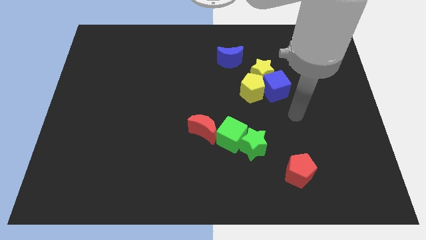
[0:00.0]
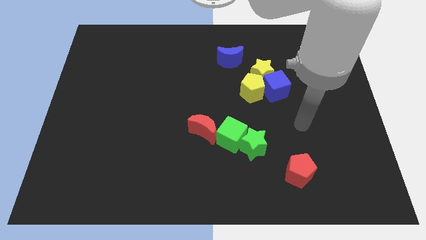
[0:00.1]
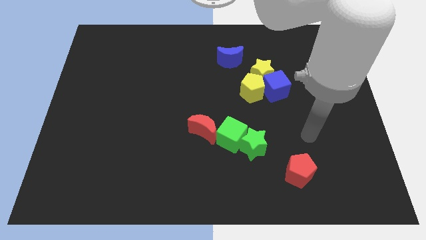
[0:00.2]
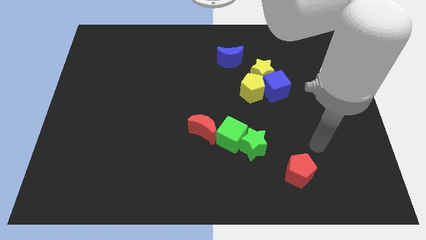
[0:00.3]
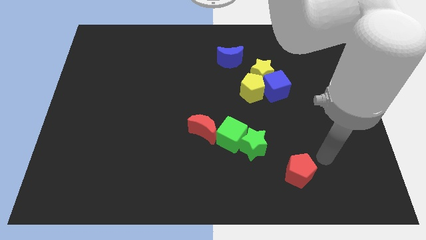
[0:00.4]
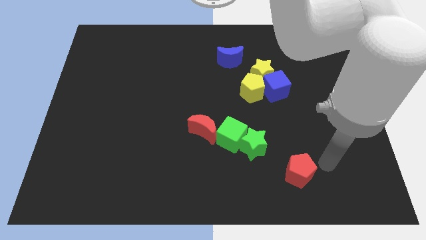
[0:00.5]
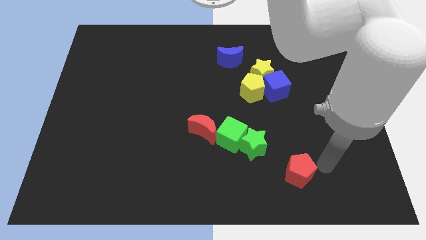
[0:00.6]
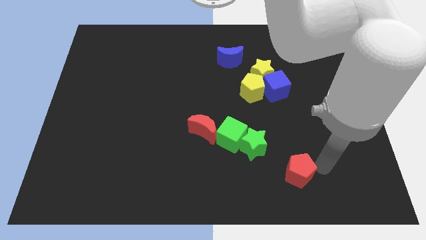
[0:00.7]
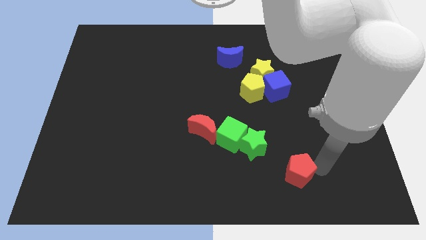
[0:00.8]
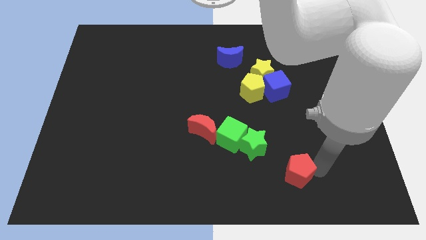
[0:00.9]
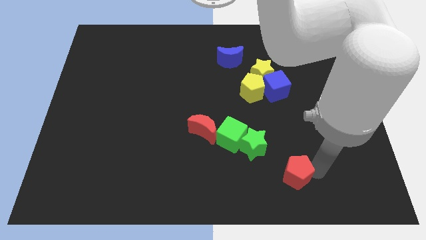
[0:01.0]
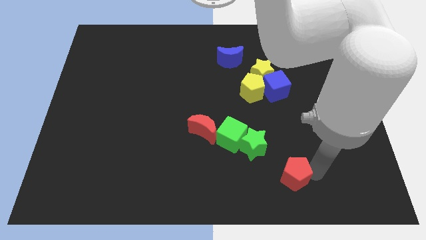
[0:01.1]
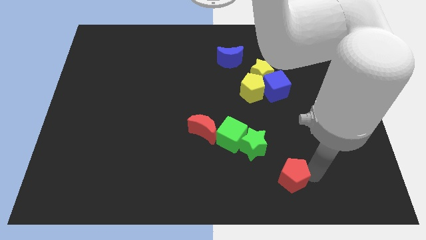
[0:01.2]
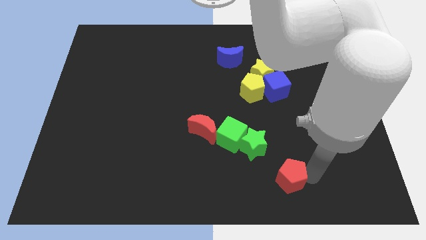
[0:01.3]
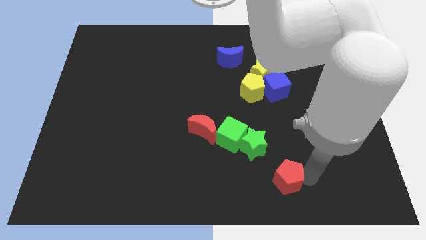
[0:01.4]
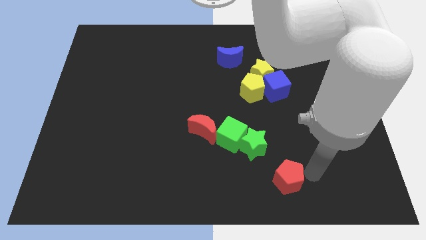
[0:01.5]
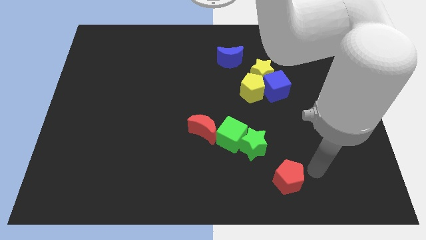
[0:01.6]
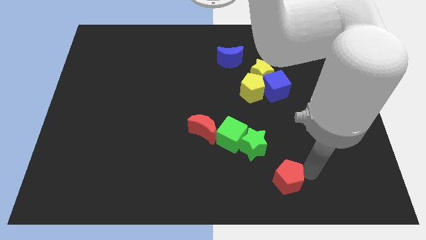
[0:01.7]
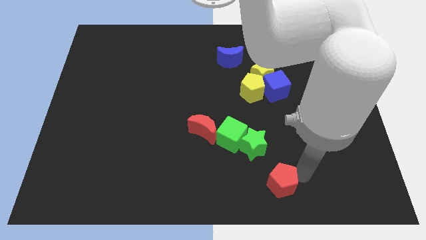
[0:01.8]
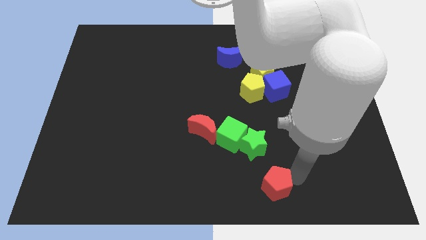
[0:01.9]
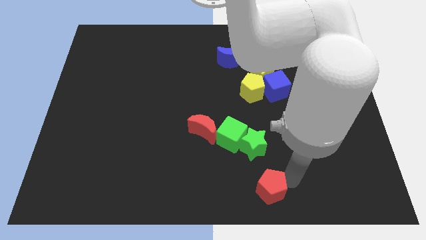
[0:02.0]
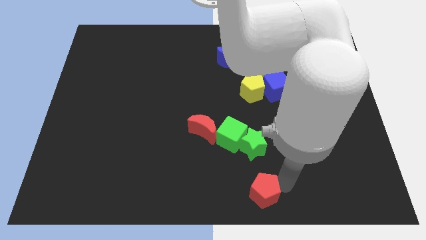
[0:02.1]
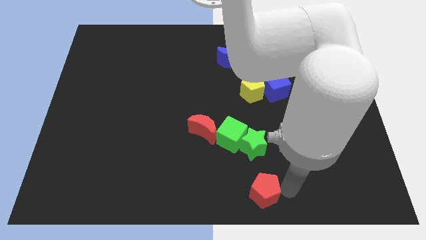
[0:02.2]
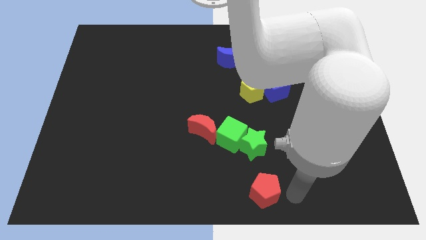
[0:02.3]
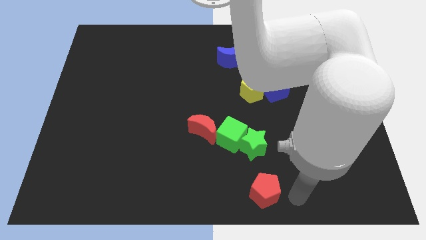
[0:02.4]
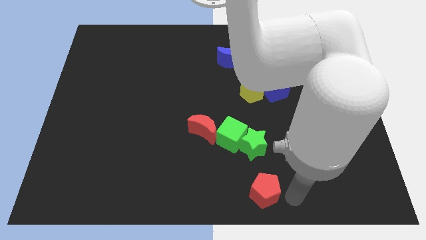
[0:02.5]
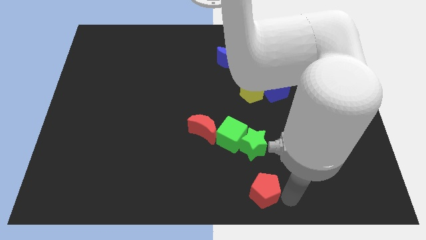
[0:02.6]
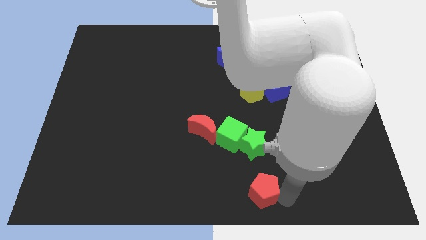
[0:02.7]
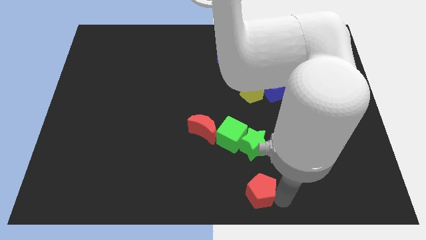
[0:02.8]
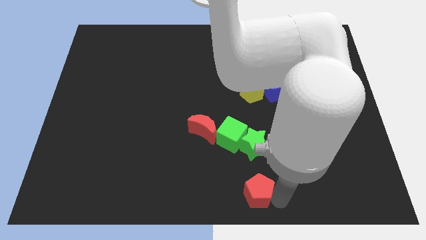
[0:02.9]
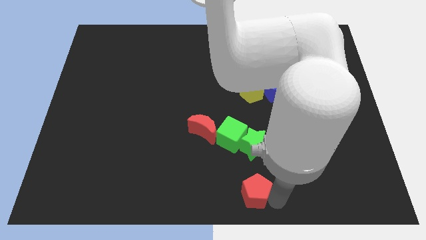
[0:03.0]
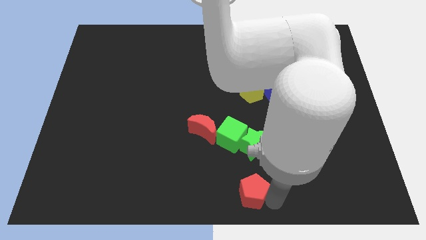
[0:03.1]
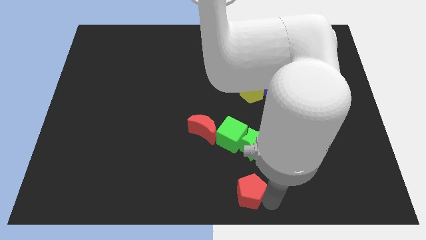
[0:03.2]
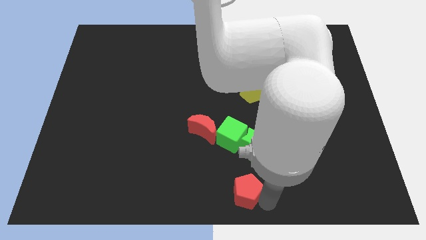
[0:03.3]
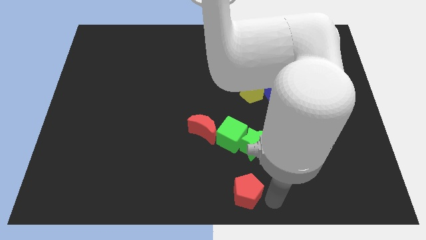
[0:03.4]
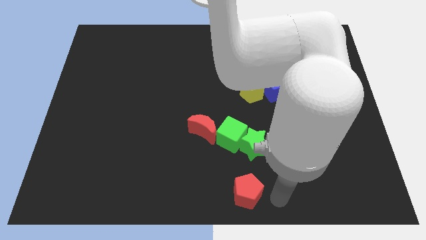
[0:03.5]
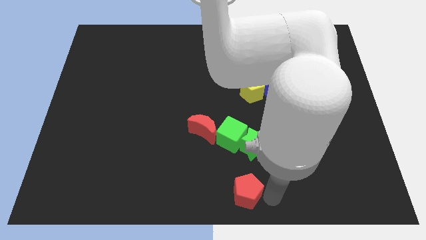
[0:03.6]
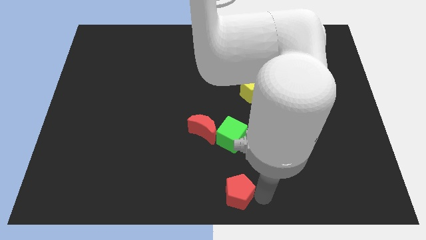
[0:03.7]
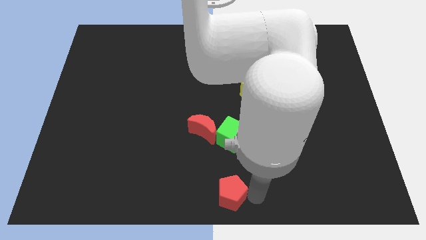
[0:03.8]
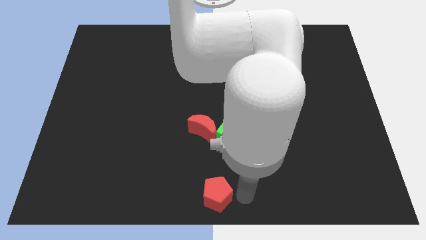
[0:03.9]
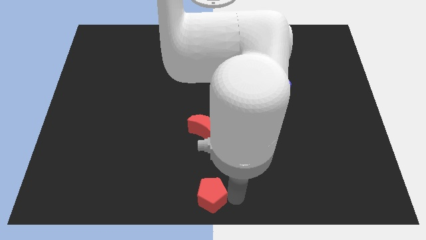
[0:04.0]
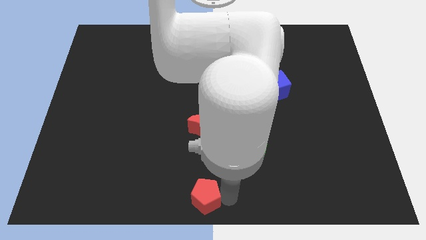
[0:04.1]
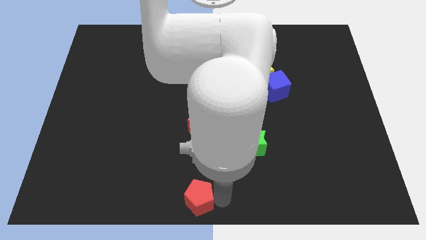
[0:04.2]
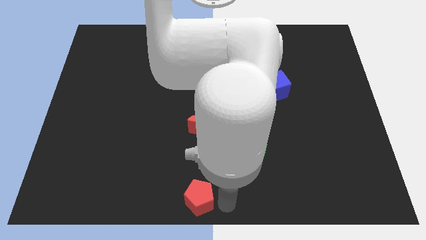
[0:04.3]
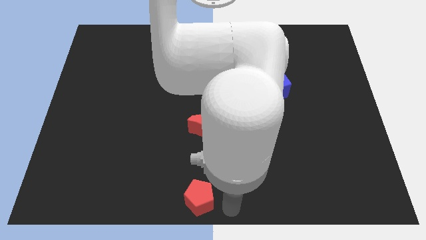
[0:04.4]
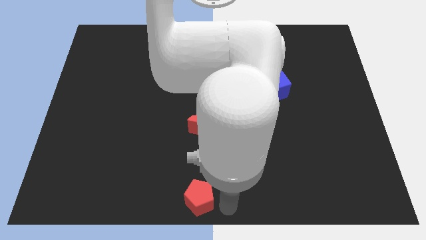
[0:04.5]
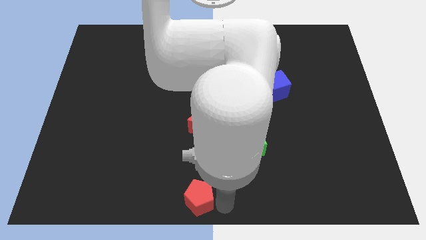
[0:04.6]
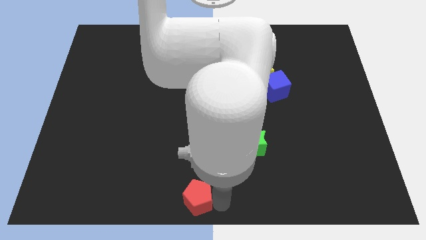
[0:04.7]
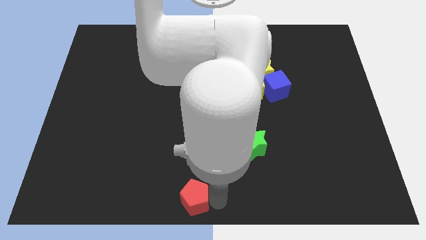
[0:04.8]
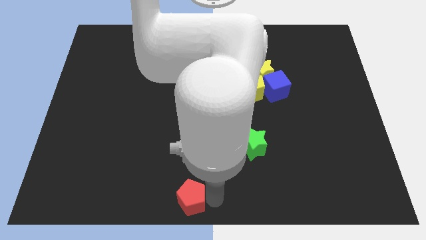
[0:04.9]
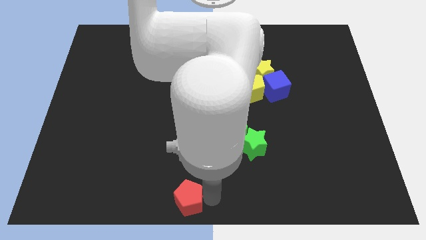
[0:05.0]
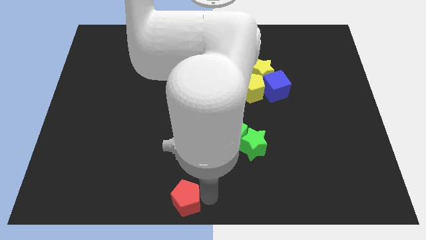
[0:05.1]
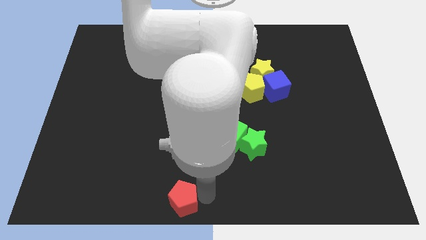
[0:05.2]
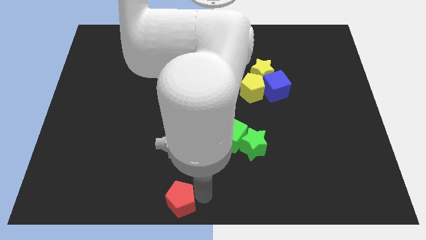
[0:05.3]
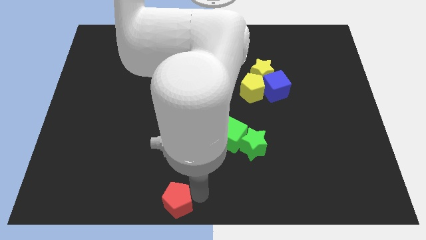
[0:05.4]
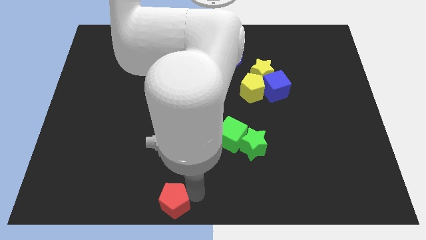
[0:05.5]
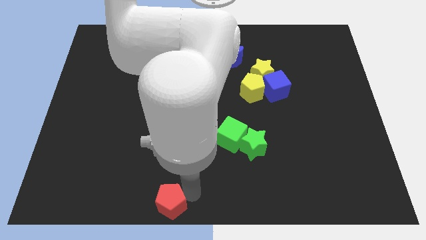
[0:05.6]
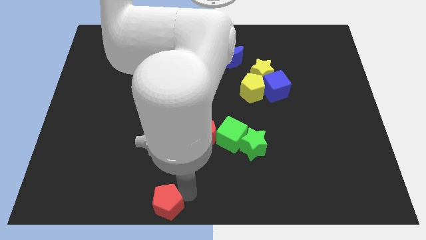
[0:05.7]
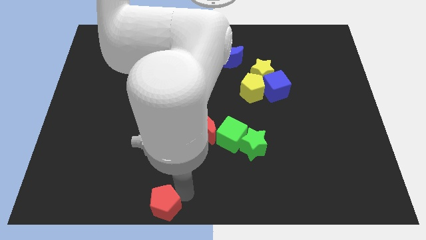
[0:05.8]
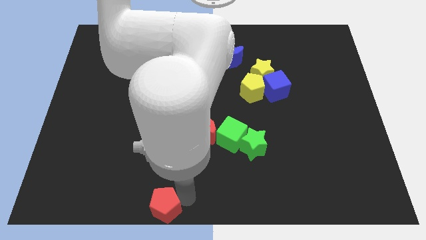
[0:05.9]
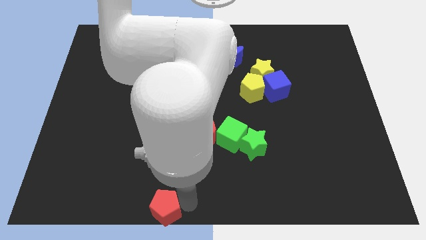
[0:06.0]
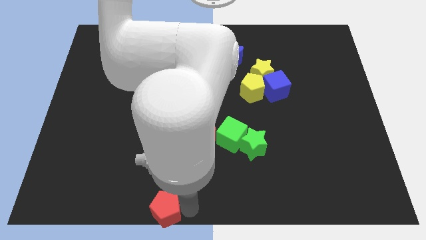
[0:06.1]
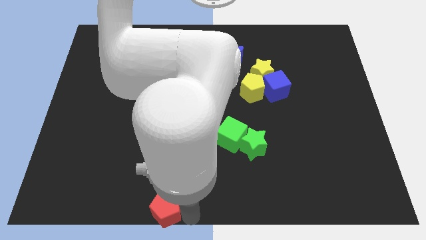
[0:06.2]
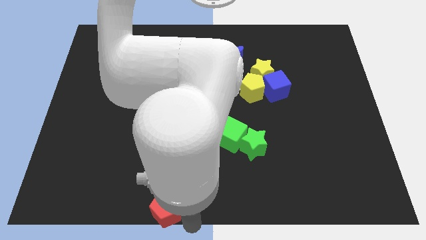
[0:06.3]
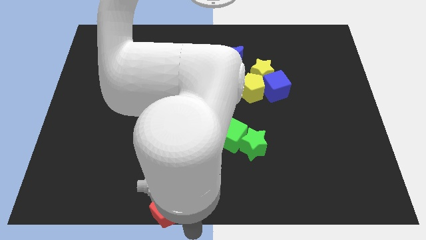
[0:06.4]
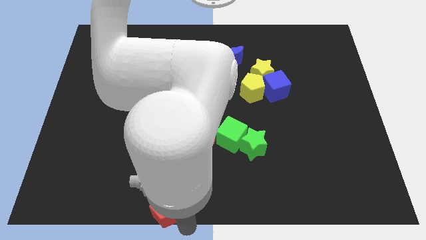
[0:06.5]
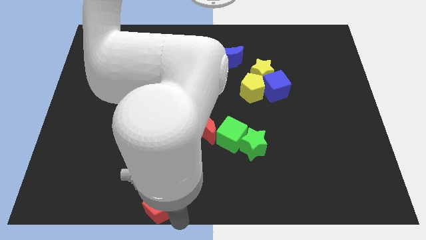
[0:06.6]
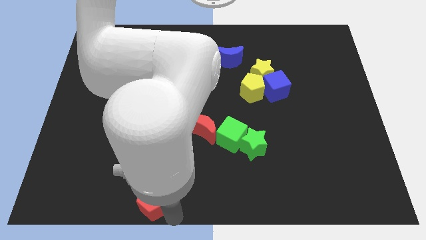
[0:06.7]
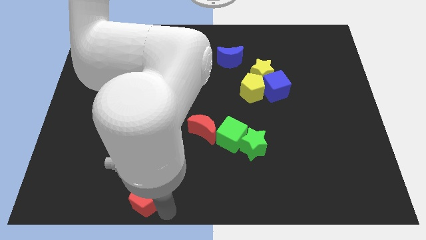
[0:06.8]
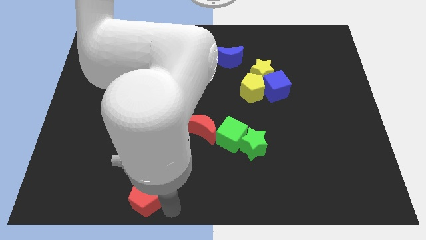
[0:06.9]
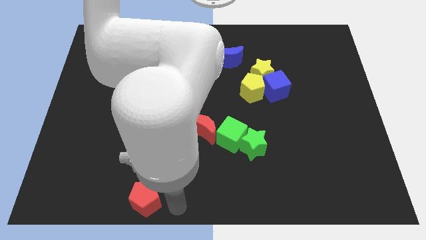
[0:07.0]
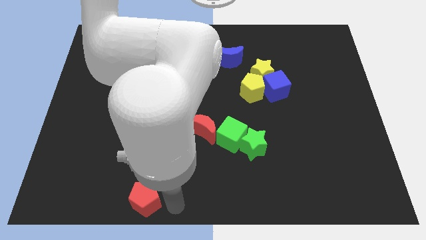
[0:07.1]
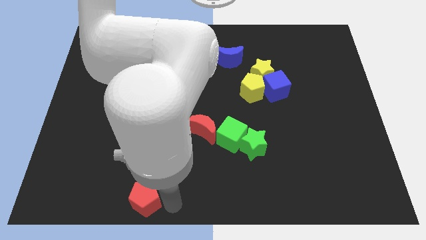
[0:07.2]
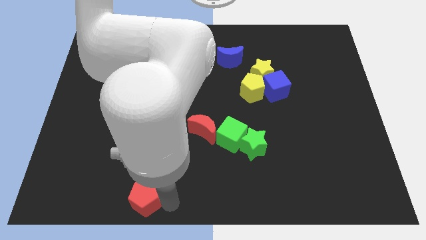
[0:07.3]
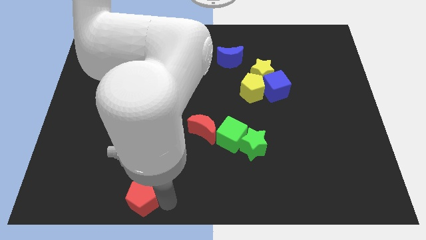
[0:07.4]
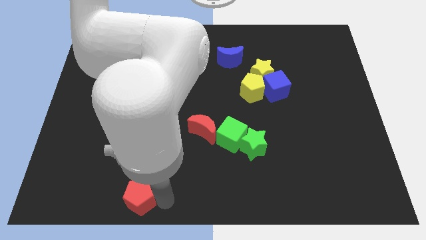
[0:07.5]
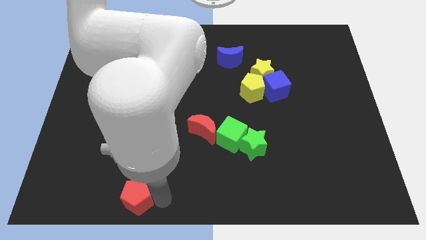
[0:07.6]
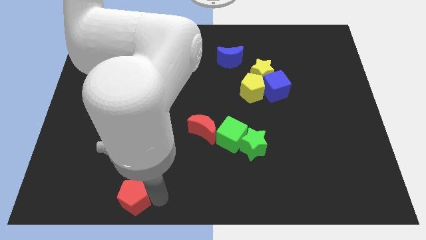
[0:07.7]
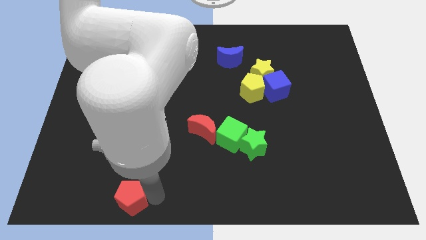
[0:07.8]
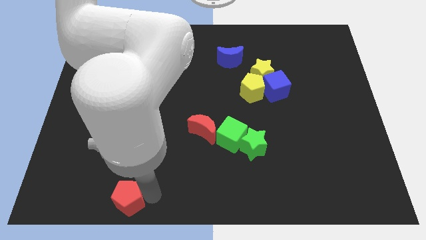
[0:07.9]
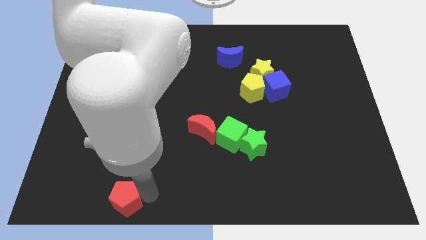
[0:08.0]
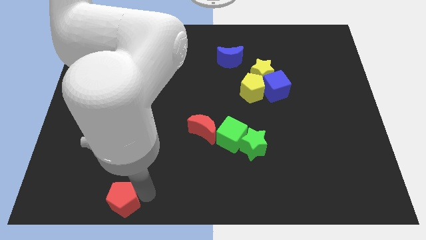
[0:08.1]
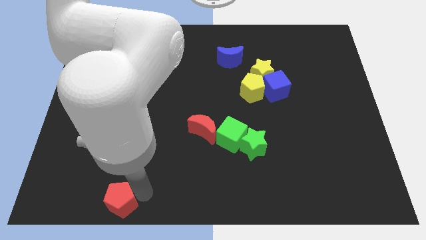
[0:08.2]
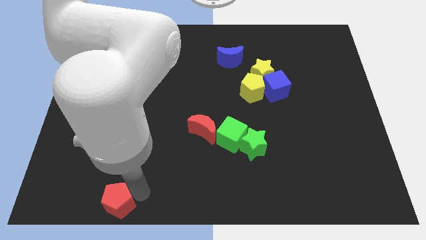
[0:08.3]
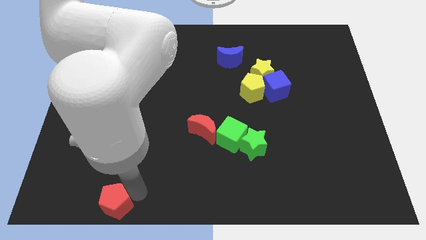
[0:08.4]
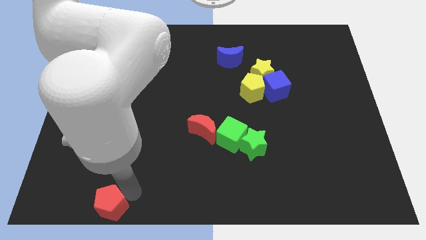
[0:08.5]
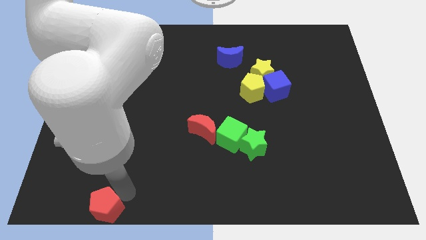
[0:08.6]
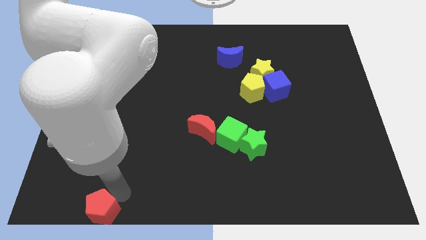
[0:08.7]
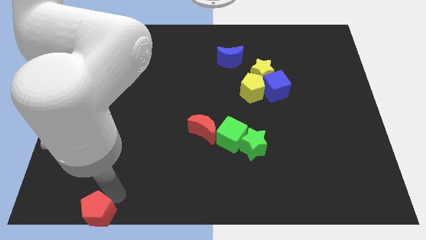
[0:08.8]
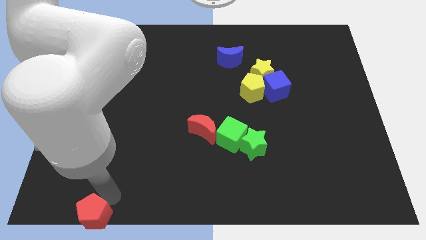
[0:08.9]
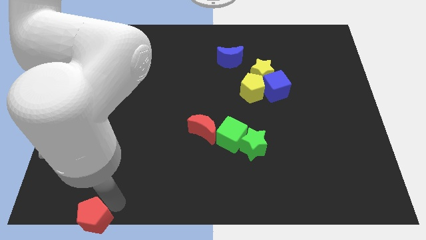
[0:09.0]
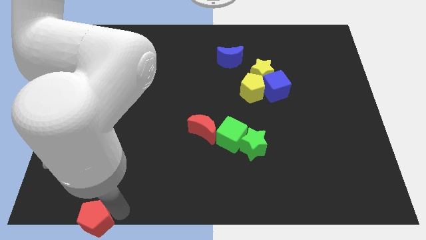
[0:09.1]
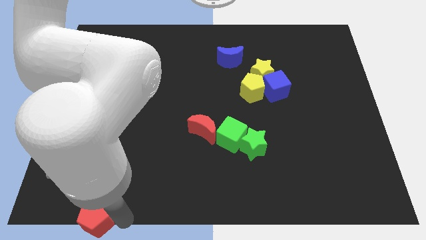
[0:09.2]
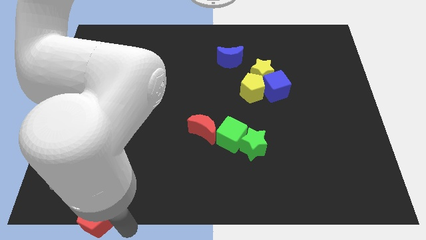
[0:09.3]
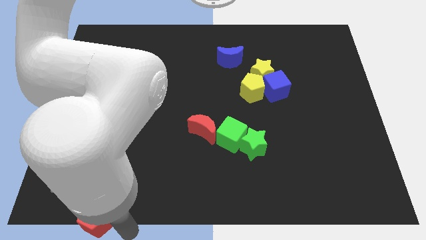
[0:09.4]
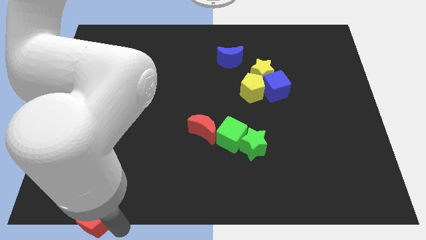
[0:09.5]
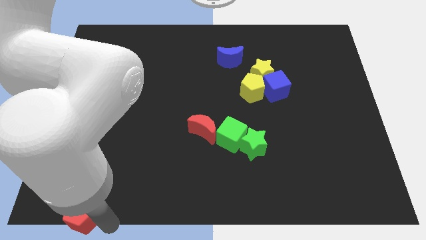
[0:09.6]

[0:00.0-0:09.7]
put the red pentagon to the bottom left corner
